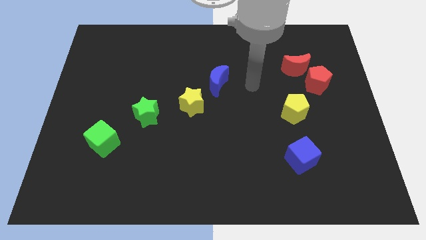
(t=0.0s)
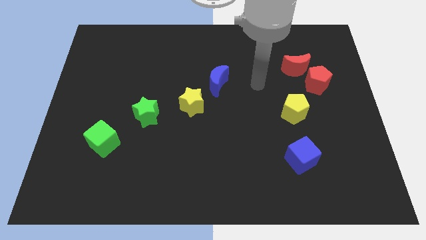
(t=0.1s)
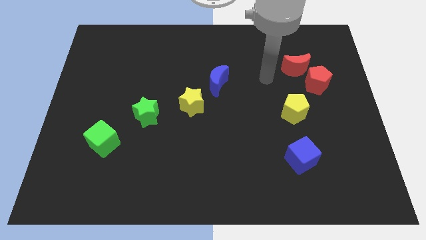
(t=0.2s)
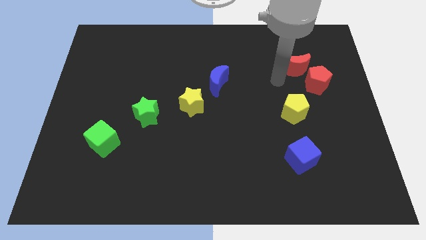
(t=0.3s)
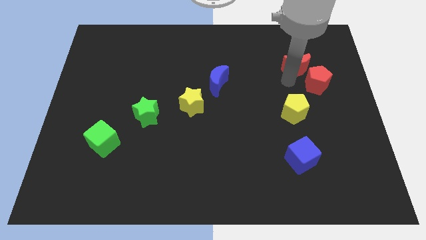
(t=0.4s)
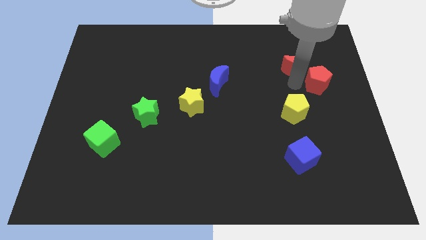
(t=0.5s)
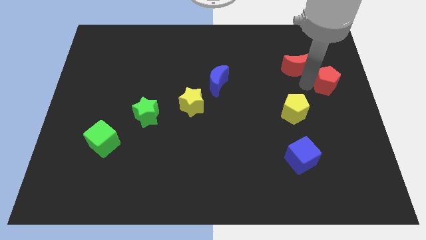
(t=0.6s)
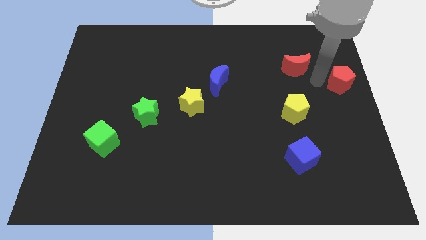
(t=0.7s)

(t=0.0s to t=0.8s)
separate the red moon from the red pentagon

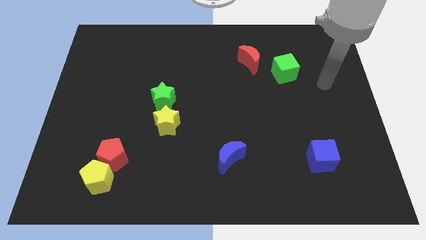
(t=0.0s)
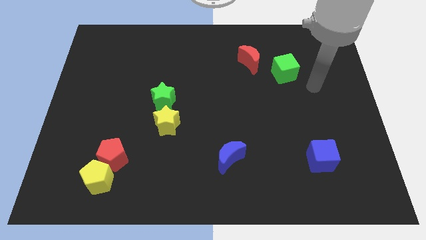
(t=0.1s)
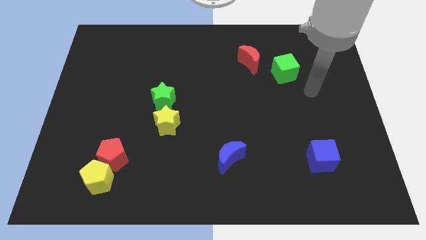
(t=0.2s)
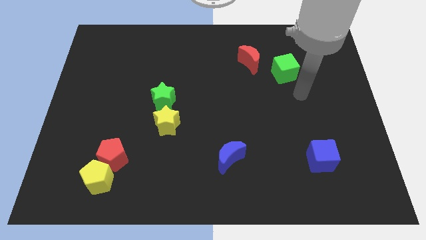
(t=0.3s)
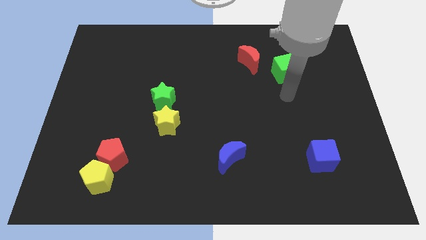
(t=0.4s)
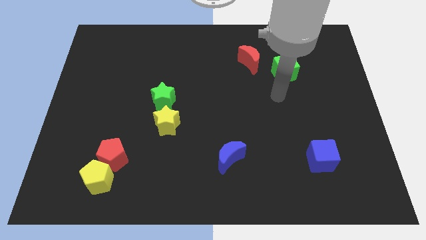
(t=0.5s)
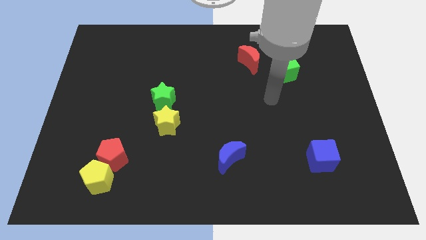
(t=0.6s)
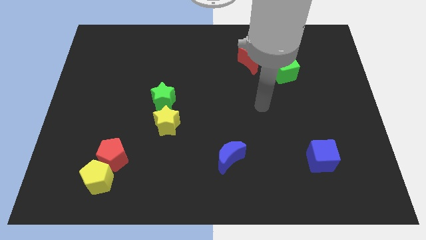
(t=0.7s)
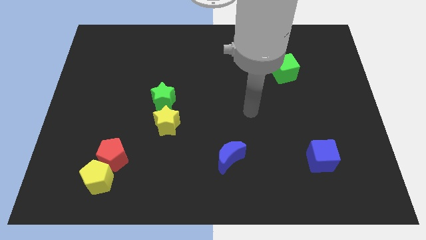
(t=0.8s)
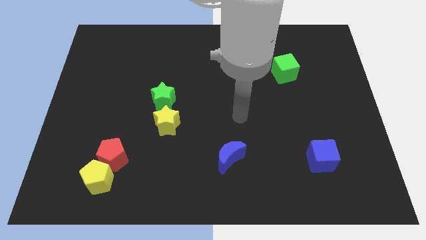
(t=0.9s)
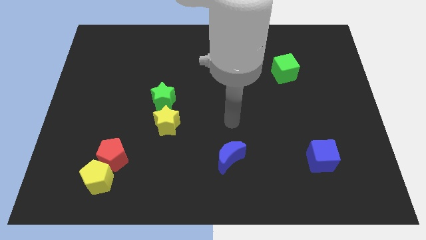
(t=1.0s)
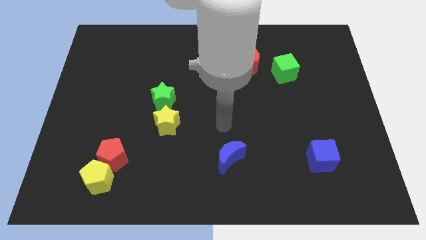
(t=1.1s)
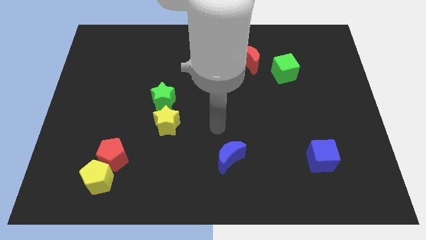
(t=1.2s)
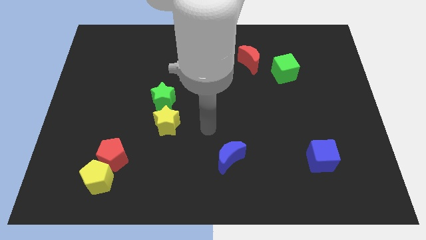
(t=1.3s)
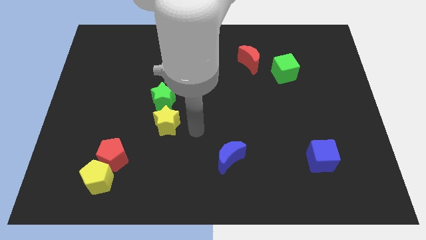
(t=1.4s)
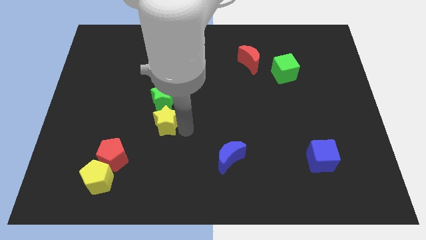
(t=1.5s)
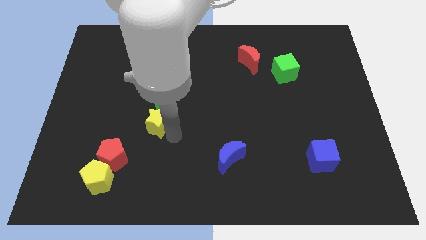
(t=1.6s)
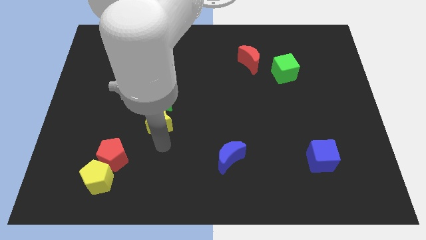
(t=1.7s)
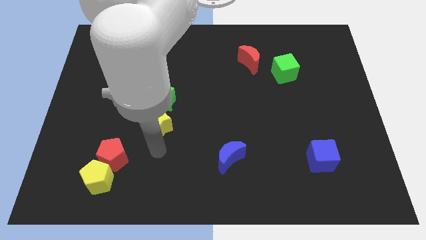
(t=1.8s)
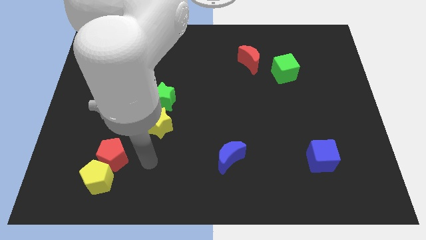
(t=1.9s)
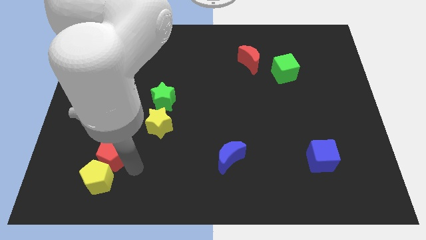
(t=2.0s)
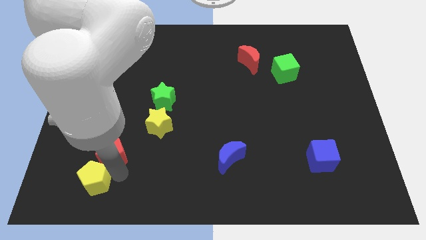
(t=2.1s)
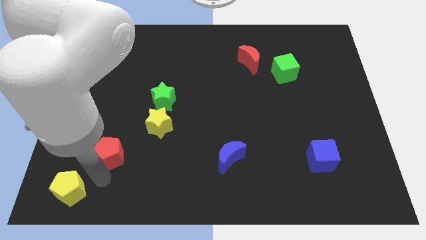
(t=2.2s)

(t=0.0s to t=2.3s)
separate the red pentagon from the yellow pentagon

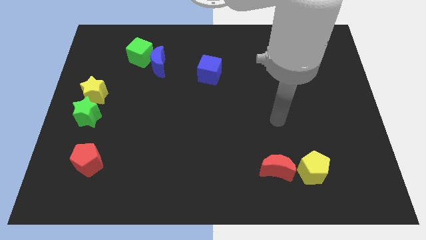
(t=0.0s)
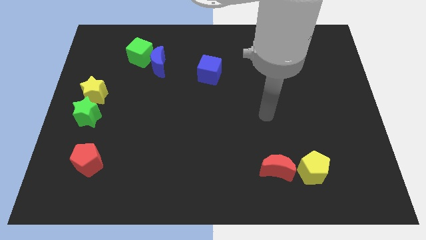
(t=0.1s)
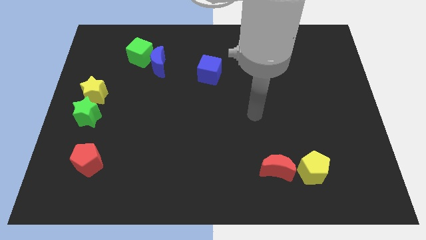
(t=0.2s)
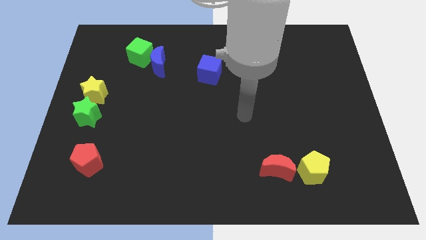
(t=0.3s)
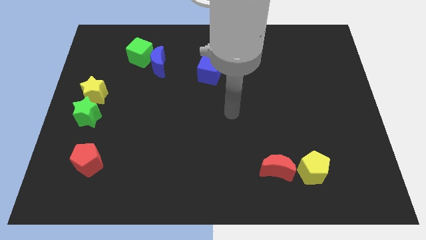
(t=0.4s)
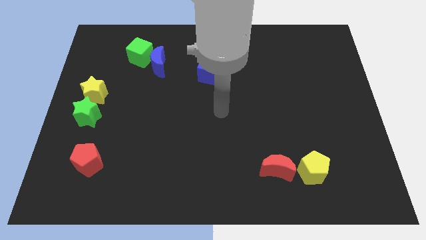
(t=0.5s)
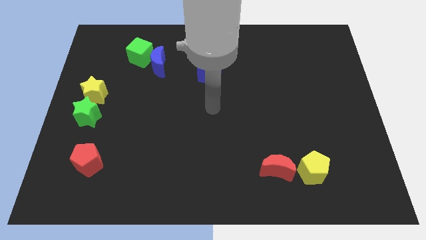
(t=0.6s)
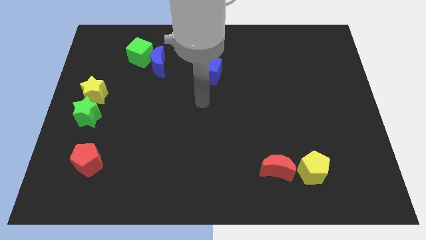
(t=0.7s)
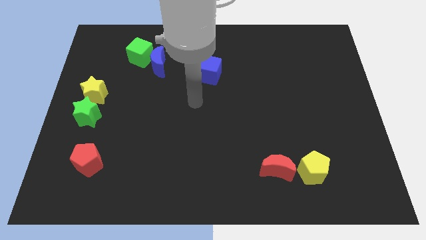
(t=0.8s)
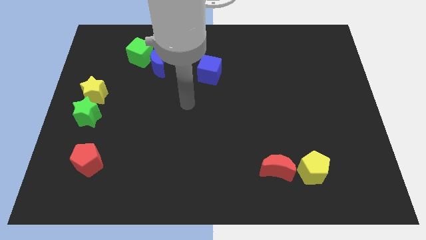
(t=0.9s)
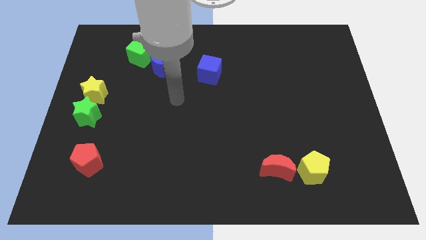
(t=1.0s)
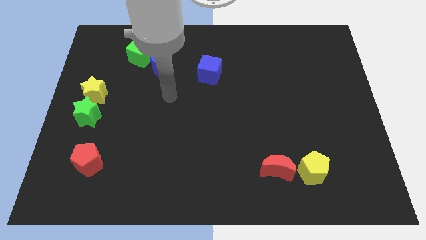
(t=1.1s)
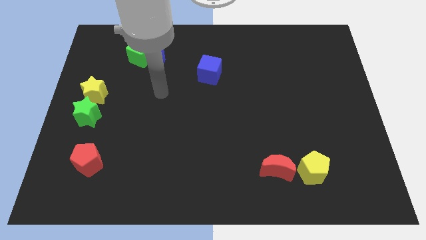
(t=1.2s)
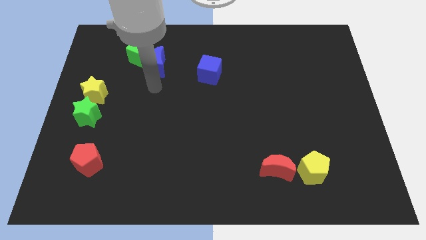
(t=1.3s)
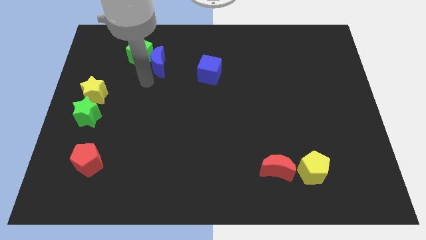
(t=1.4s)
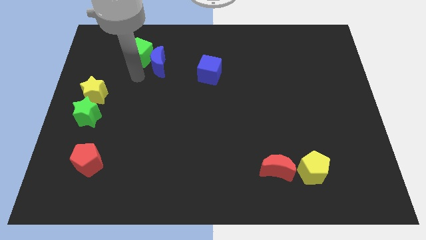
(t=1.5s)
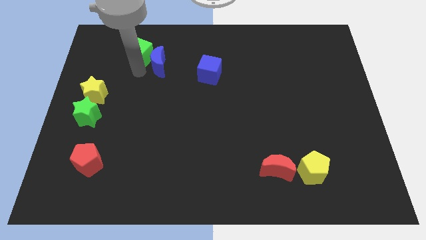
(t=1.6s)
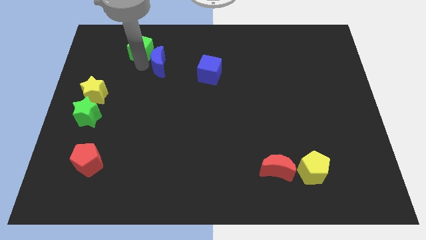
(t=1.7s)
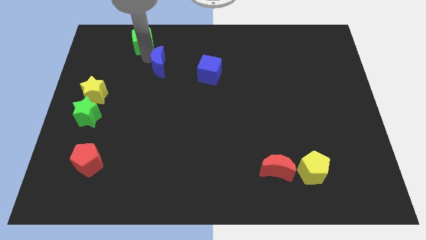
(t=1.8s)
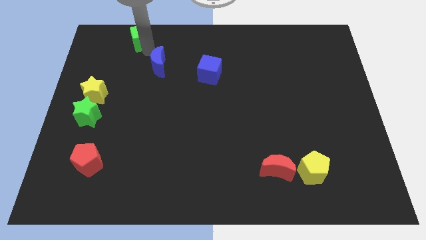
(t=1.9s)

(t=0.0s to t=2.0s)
separate the blue moon from the green cube

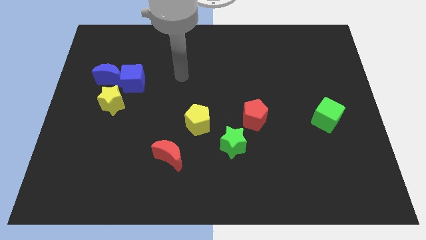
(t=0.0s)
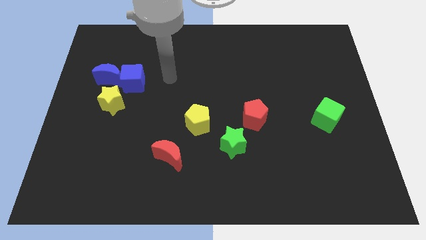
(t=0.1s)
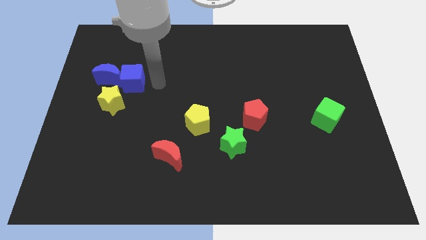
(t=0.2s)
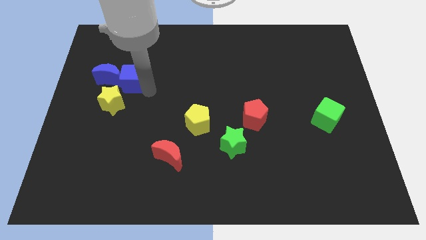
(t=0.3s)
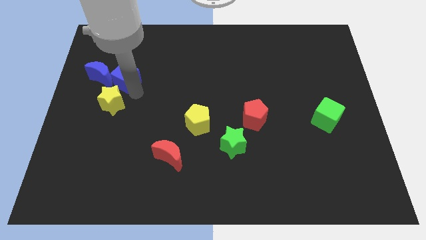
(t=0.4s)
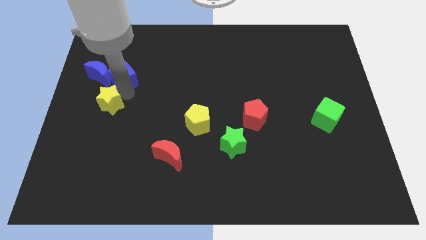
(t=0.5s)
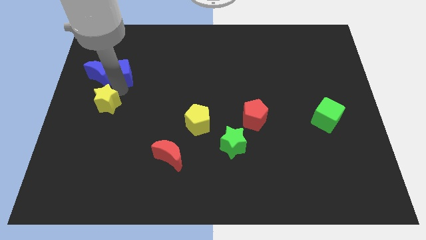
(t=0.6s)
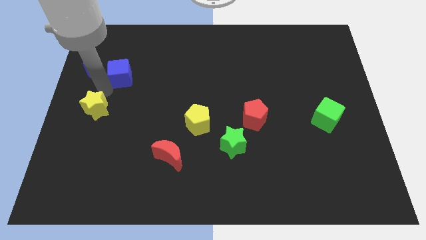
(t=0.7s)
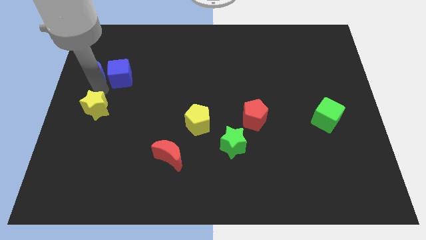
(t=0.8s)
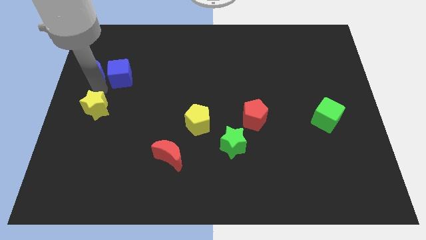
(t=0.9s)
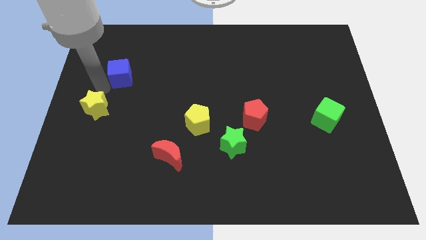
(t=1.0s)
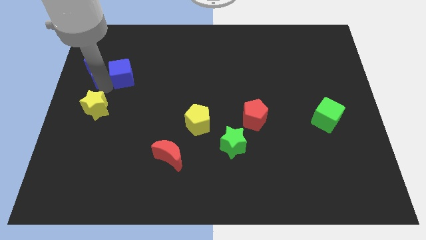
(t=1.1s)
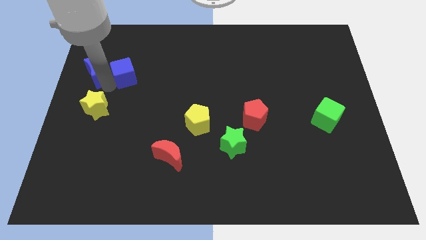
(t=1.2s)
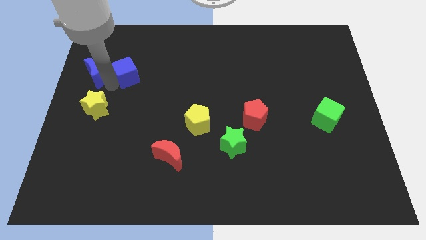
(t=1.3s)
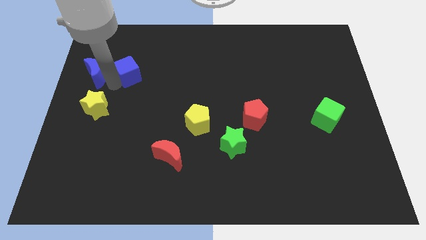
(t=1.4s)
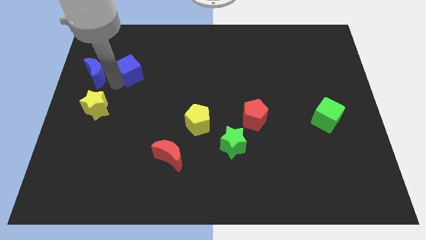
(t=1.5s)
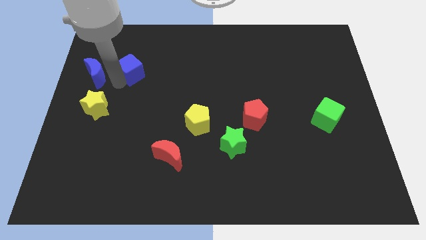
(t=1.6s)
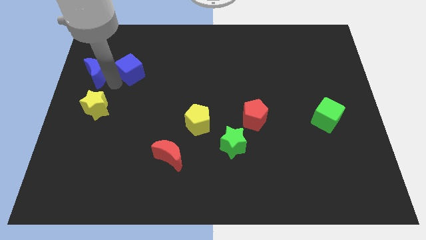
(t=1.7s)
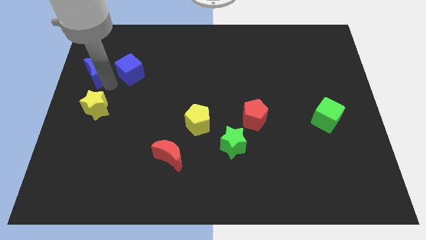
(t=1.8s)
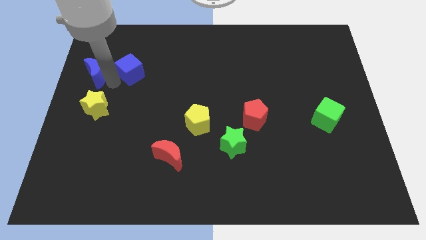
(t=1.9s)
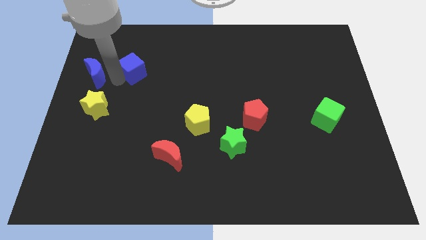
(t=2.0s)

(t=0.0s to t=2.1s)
move the blue cube away from the blue moon and yellow star

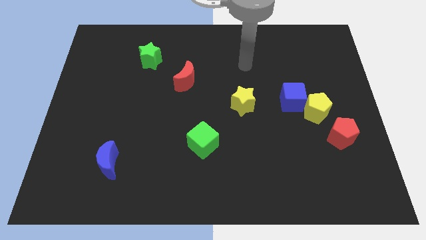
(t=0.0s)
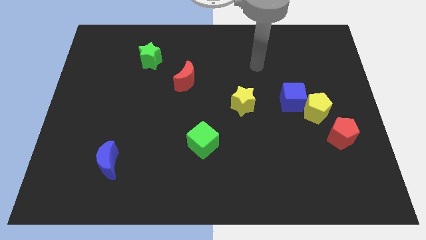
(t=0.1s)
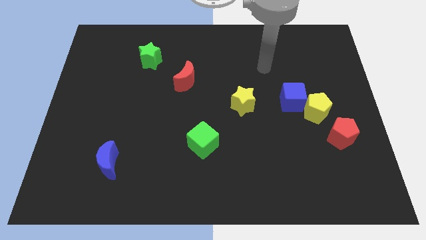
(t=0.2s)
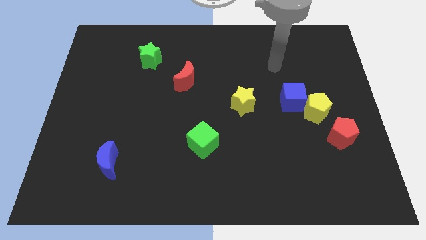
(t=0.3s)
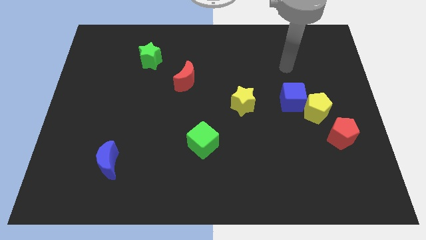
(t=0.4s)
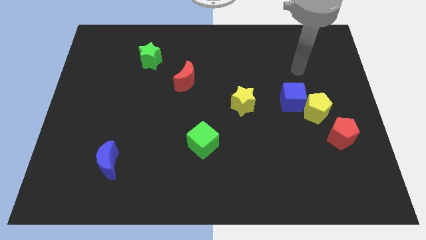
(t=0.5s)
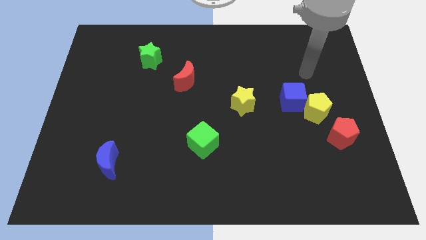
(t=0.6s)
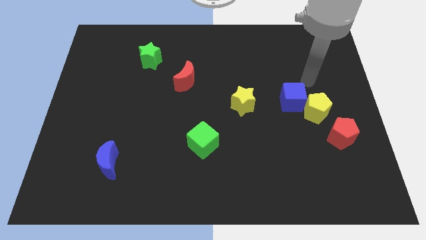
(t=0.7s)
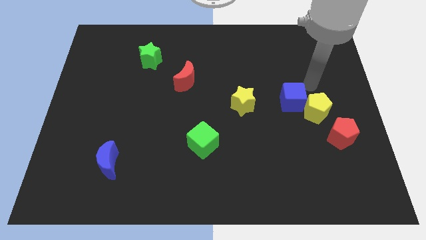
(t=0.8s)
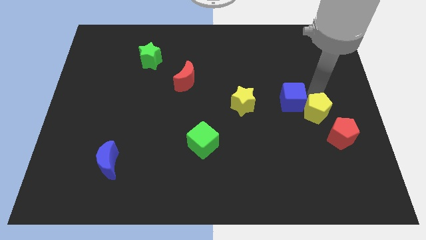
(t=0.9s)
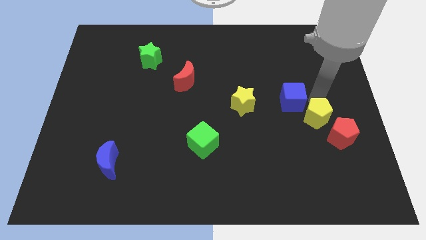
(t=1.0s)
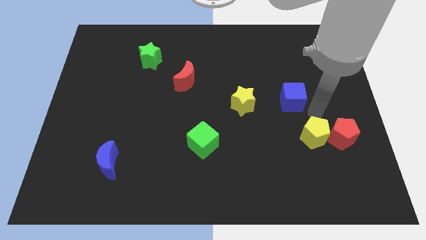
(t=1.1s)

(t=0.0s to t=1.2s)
separate the blue cube from the yellow pentagon

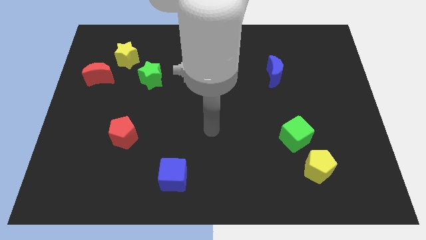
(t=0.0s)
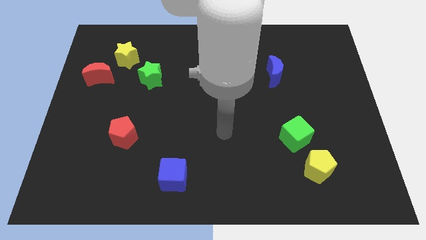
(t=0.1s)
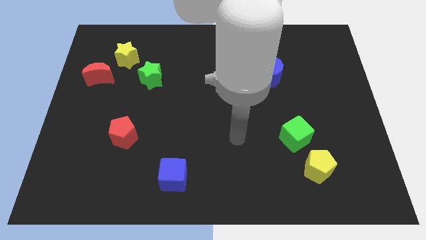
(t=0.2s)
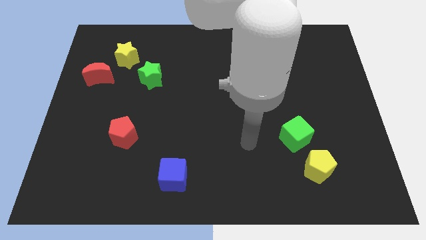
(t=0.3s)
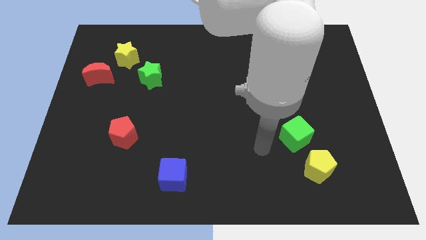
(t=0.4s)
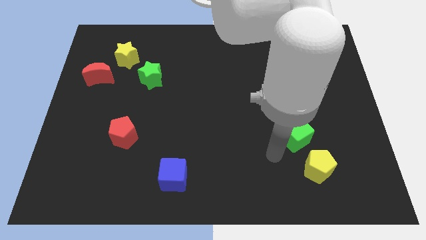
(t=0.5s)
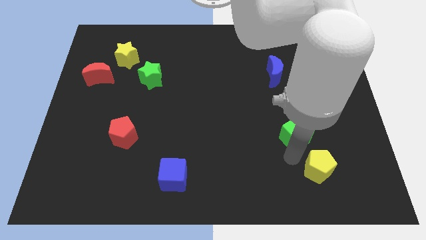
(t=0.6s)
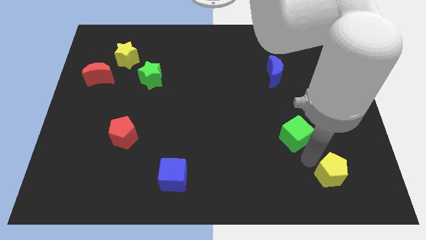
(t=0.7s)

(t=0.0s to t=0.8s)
move the green cube away from the yellow pentagon
